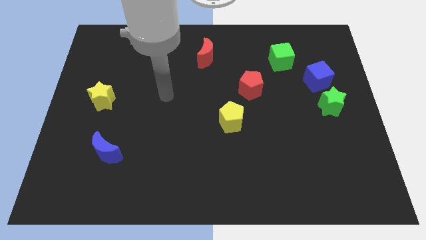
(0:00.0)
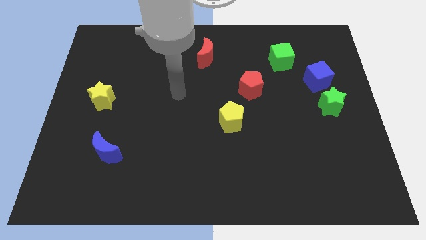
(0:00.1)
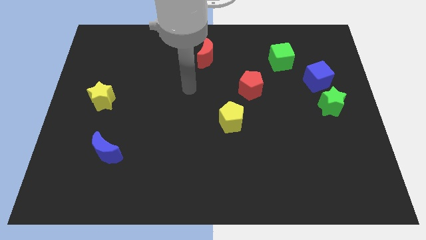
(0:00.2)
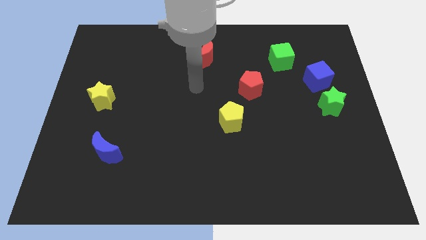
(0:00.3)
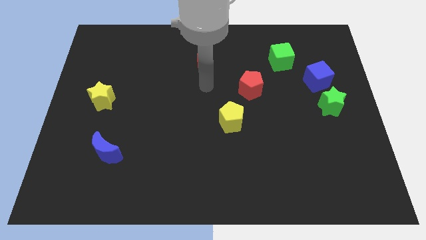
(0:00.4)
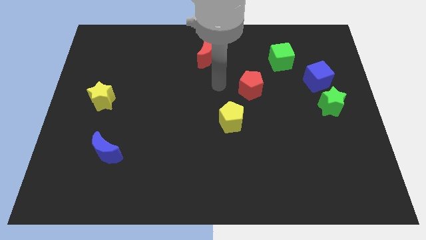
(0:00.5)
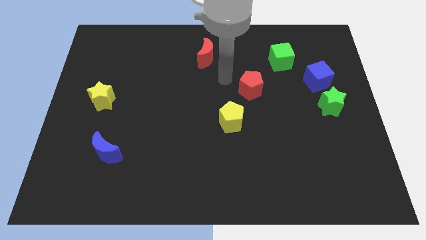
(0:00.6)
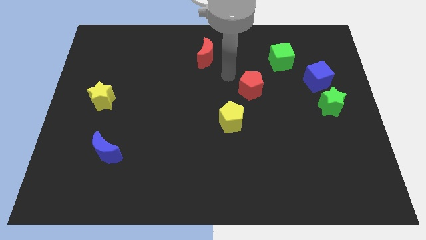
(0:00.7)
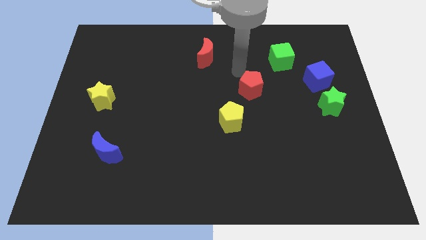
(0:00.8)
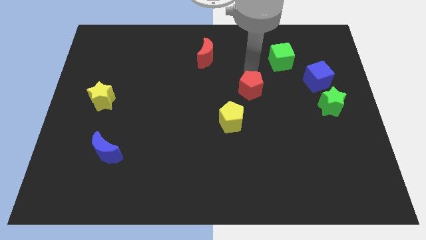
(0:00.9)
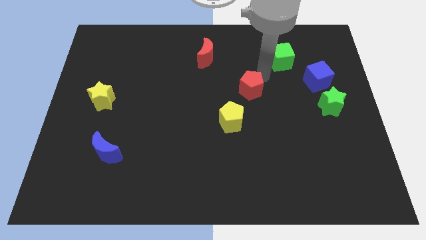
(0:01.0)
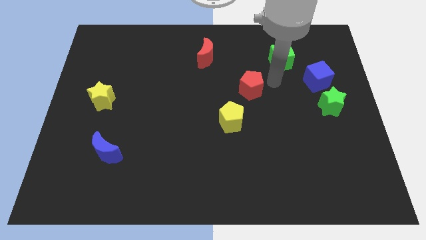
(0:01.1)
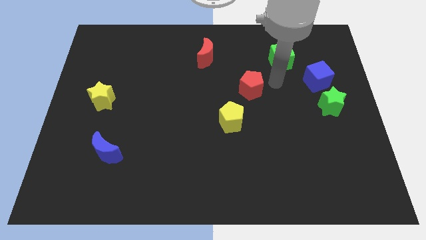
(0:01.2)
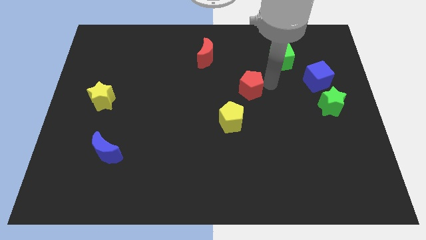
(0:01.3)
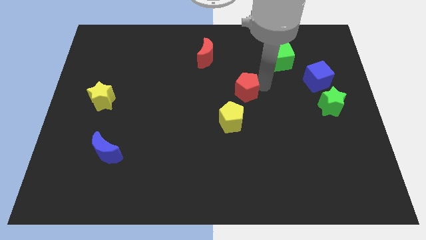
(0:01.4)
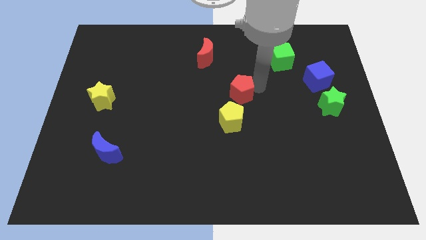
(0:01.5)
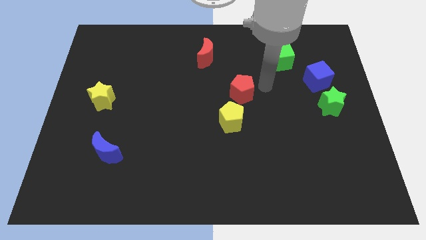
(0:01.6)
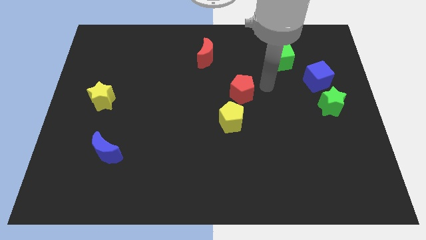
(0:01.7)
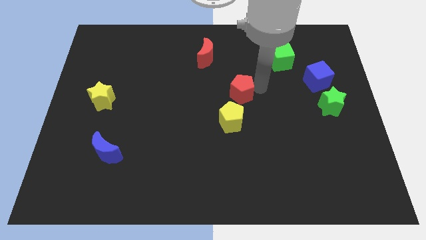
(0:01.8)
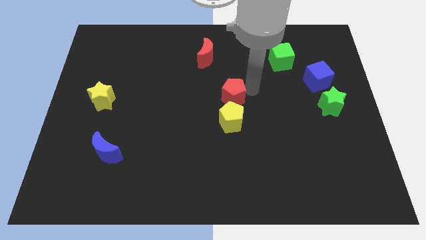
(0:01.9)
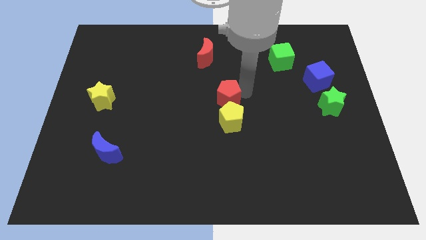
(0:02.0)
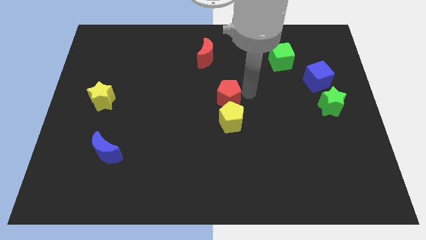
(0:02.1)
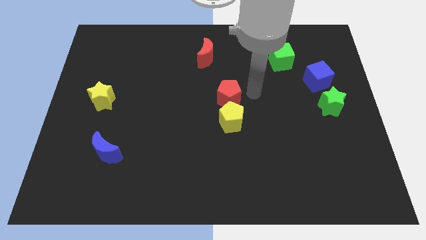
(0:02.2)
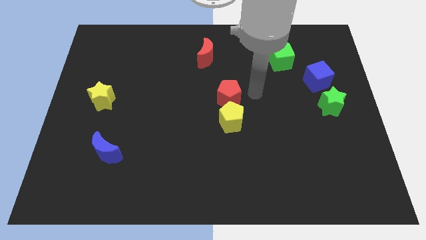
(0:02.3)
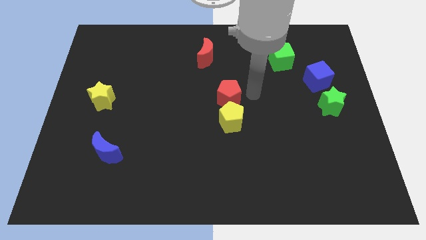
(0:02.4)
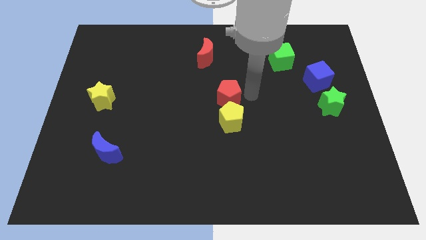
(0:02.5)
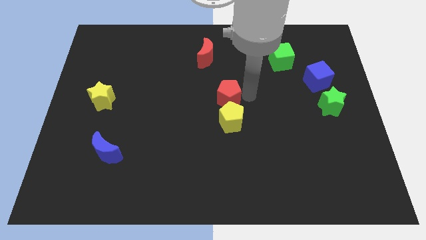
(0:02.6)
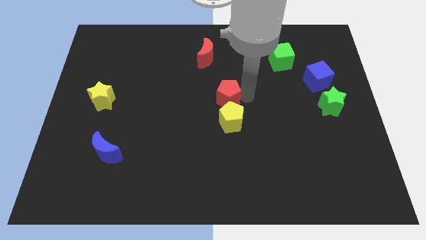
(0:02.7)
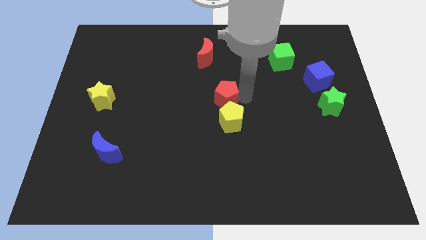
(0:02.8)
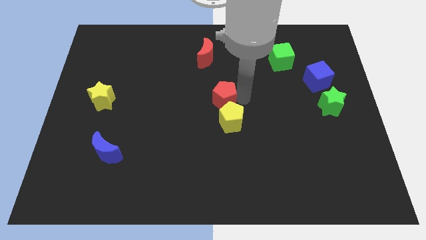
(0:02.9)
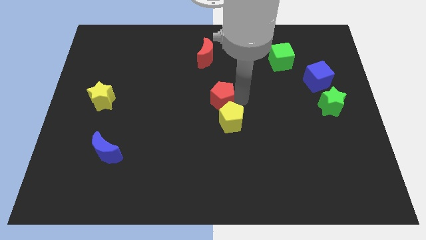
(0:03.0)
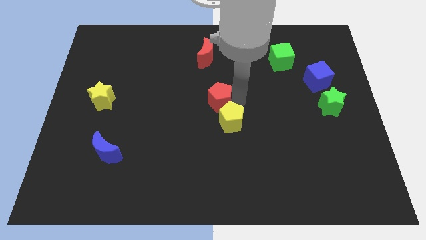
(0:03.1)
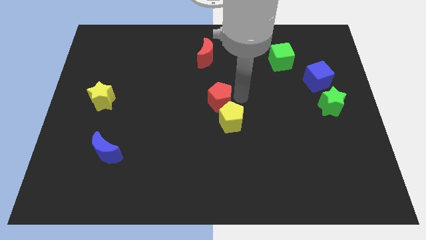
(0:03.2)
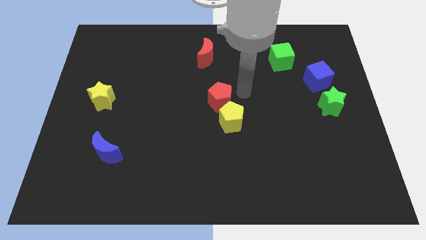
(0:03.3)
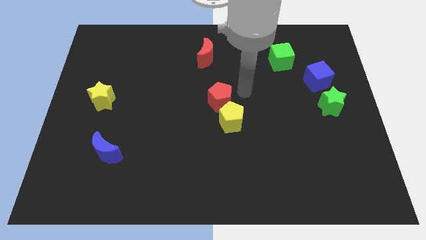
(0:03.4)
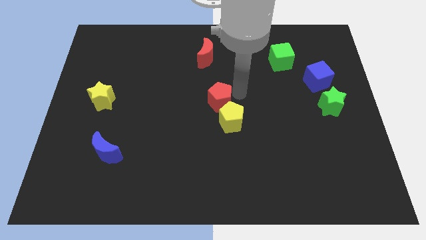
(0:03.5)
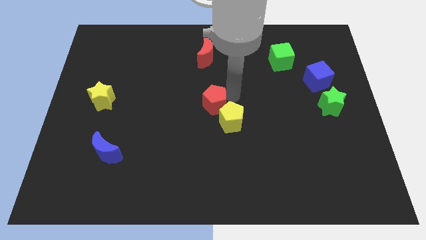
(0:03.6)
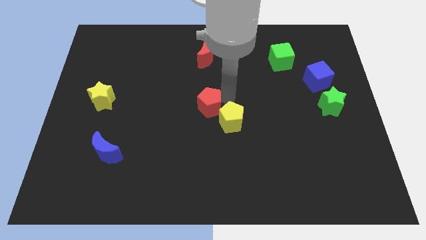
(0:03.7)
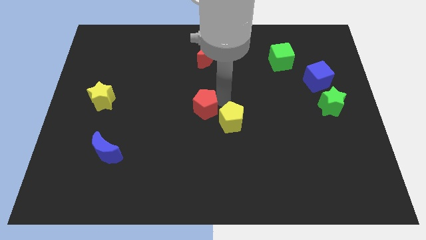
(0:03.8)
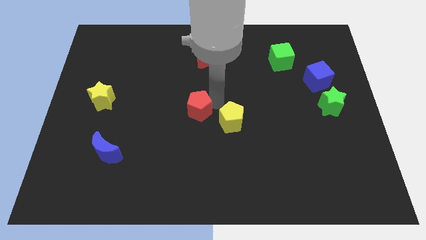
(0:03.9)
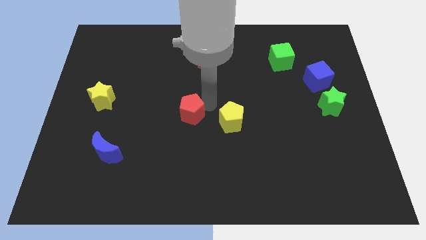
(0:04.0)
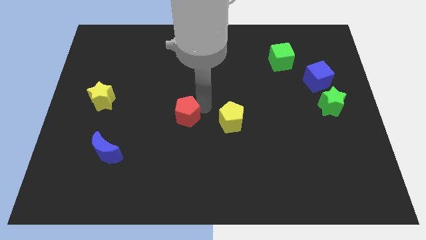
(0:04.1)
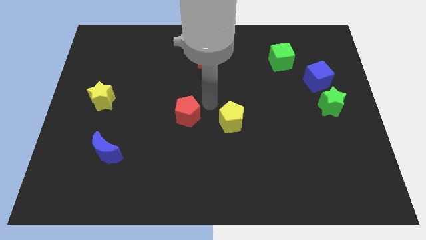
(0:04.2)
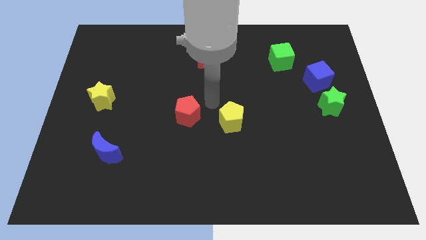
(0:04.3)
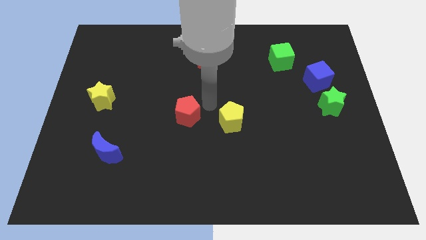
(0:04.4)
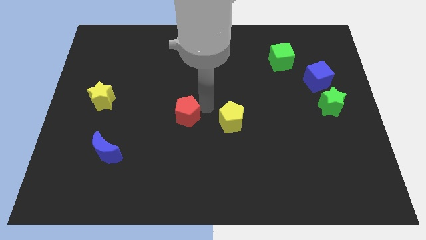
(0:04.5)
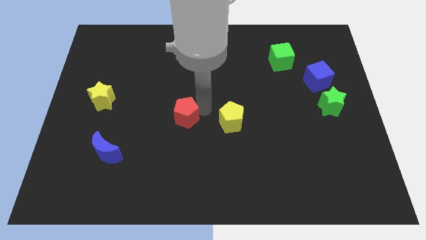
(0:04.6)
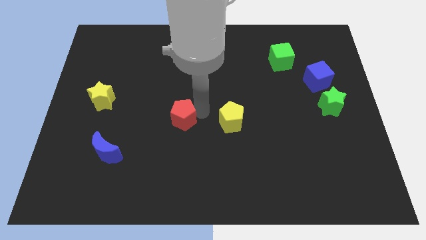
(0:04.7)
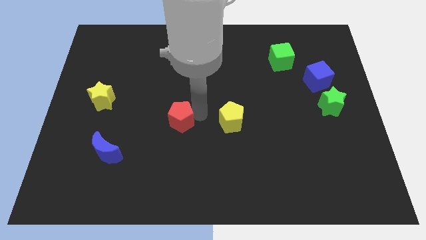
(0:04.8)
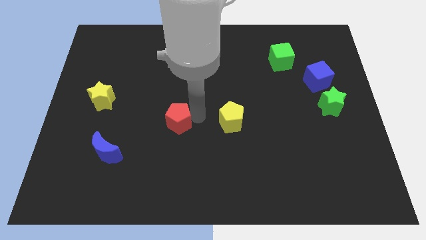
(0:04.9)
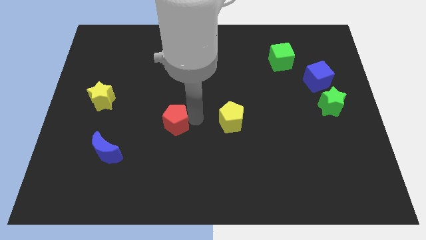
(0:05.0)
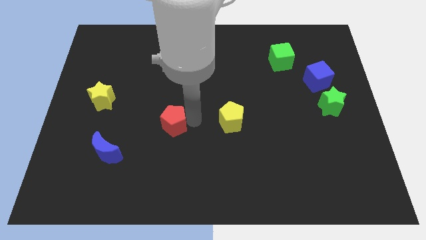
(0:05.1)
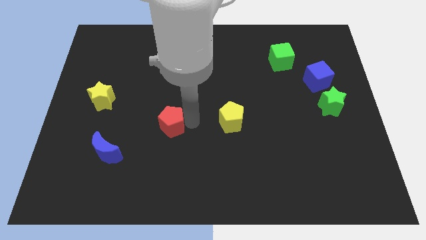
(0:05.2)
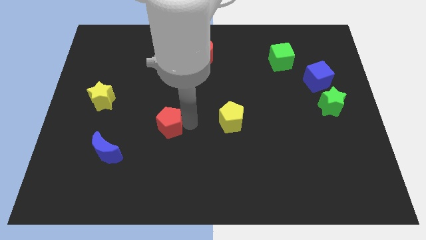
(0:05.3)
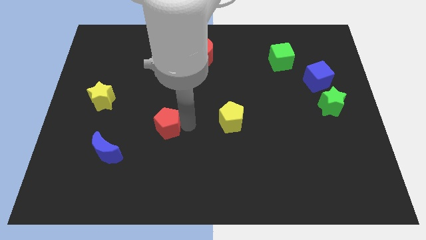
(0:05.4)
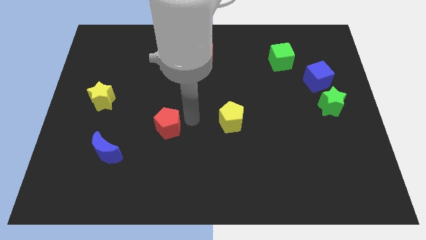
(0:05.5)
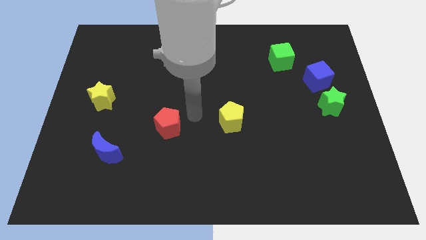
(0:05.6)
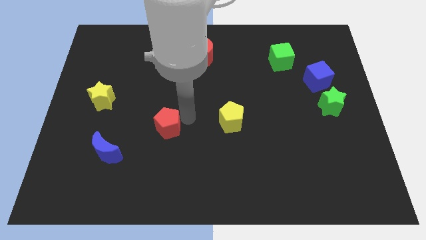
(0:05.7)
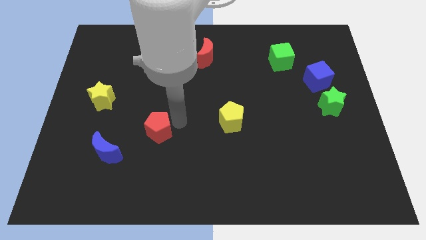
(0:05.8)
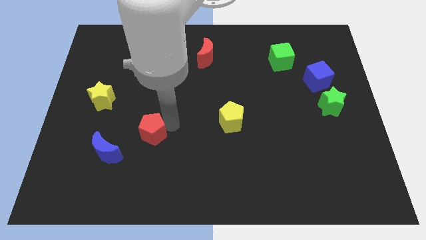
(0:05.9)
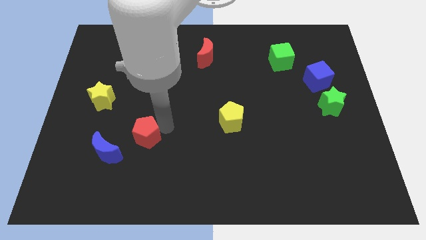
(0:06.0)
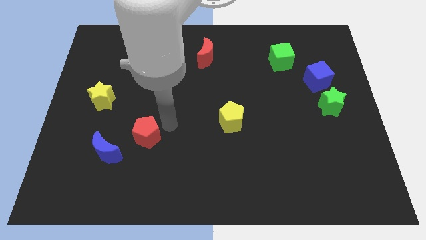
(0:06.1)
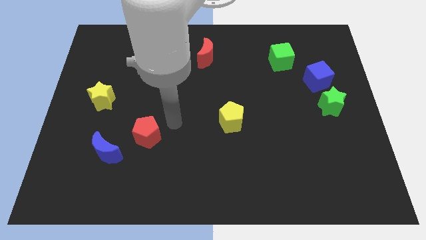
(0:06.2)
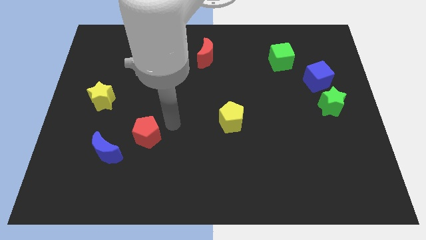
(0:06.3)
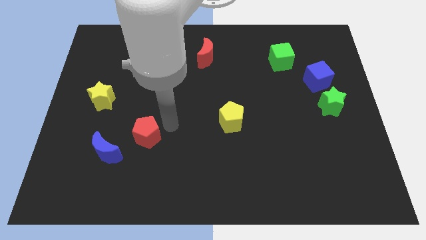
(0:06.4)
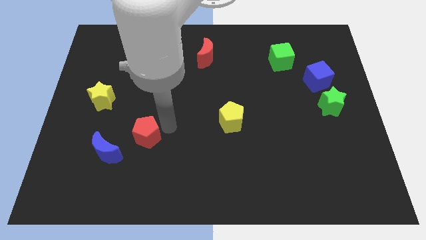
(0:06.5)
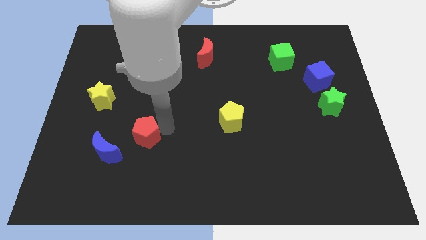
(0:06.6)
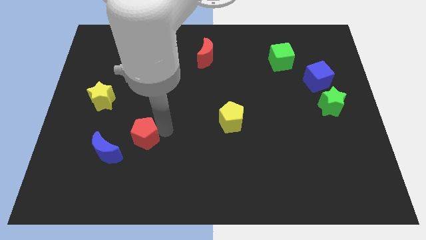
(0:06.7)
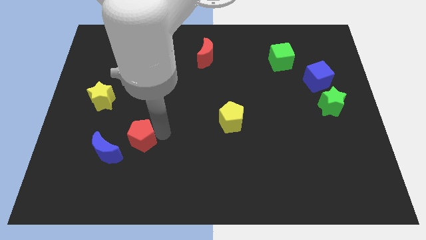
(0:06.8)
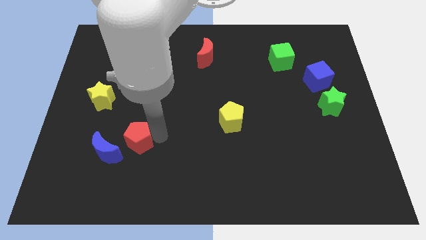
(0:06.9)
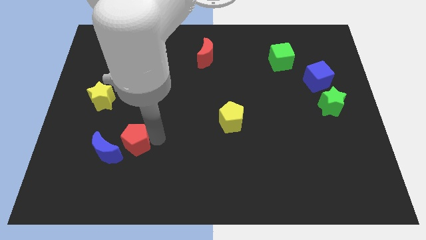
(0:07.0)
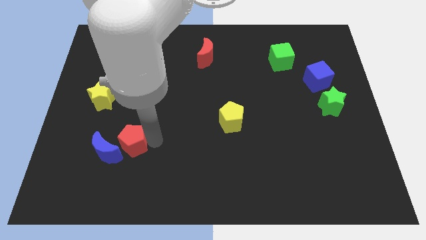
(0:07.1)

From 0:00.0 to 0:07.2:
move the red pentagon to the blue moon

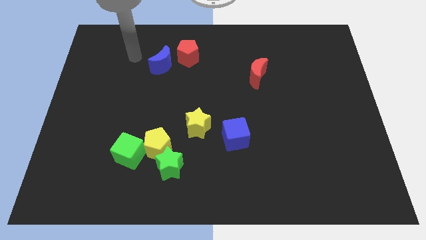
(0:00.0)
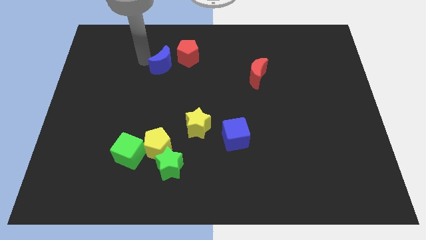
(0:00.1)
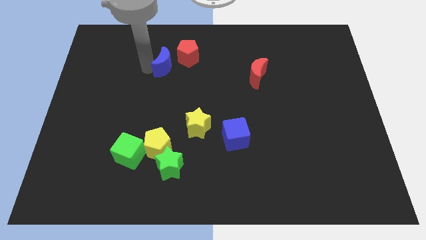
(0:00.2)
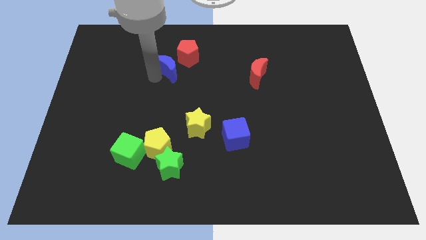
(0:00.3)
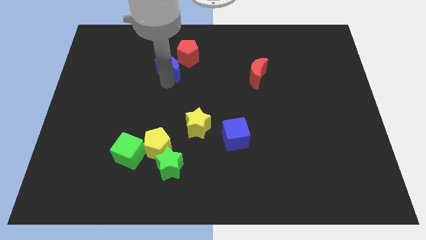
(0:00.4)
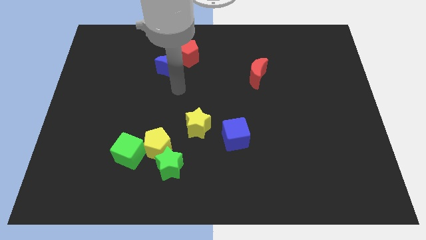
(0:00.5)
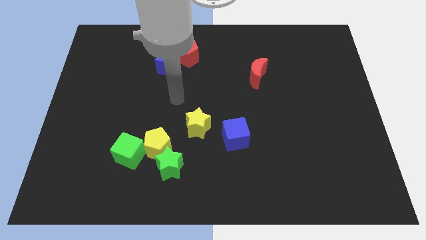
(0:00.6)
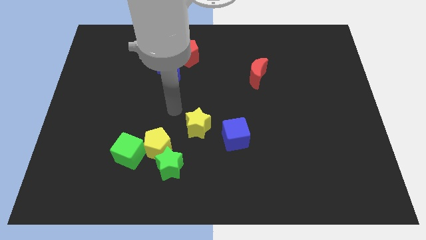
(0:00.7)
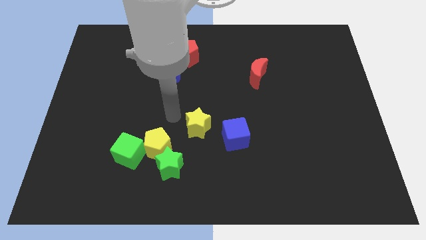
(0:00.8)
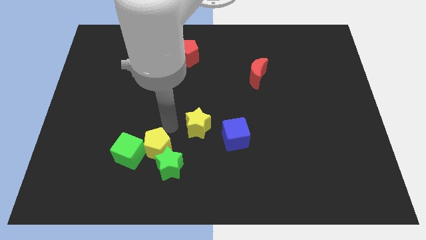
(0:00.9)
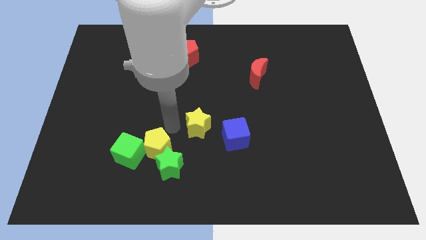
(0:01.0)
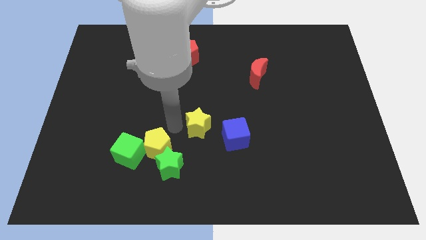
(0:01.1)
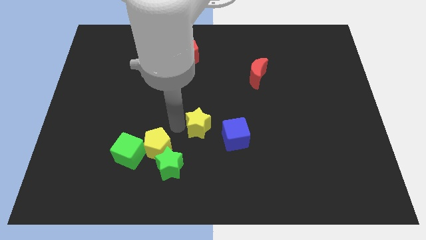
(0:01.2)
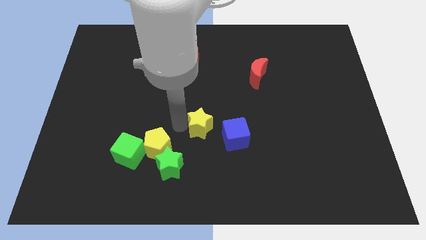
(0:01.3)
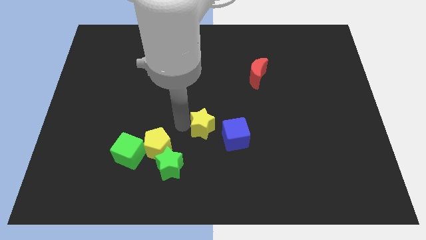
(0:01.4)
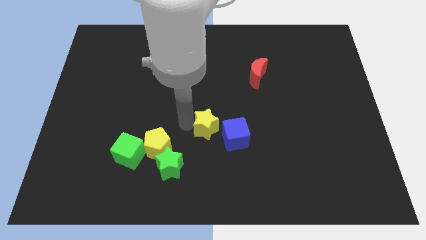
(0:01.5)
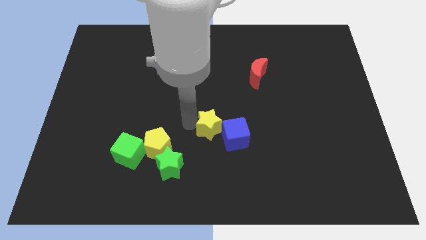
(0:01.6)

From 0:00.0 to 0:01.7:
move the yellow star to the blue cube
